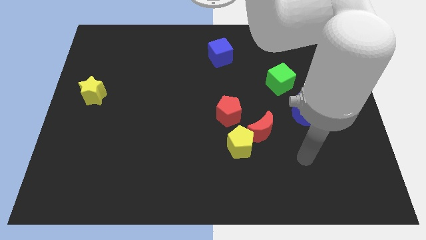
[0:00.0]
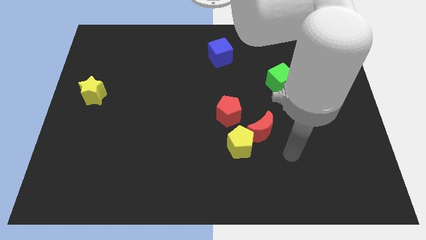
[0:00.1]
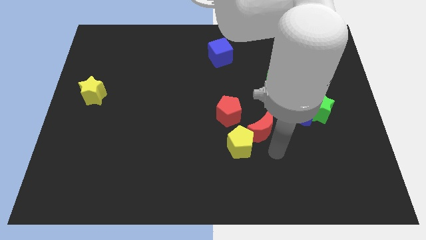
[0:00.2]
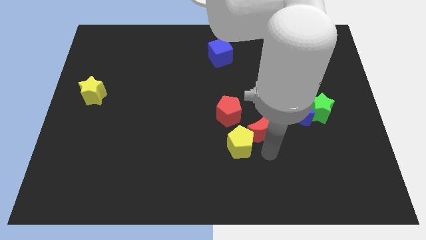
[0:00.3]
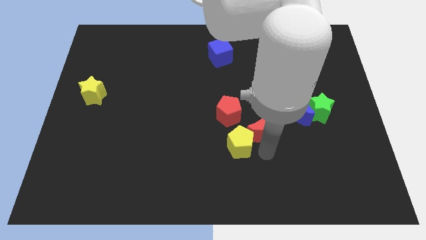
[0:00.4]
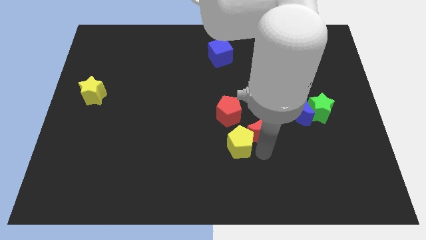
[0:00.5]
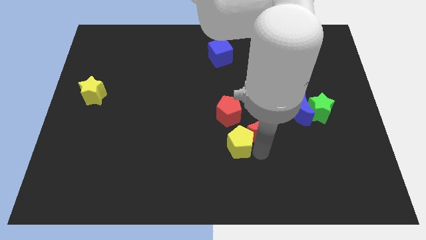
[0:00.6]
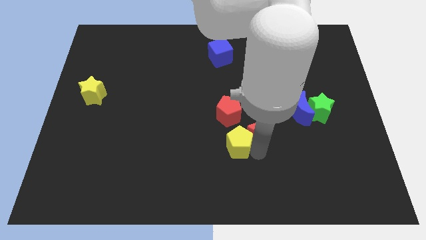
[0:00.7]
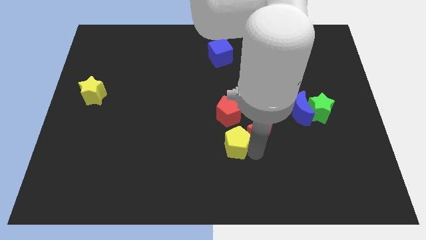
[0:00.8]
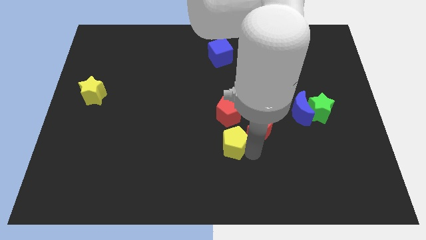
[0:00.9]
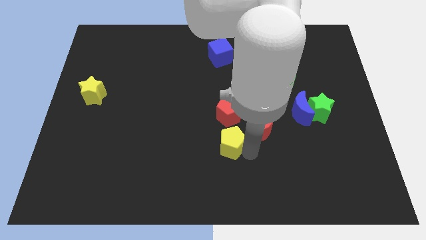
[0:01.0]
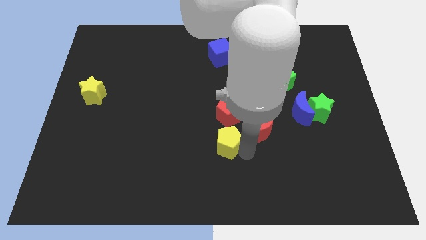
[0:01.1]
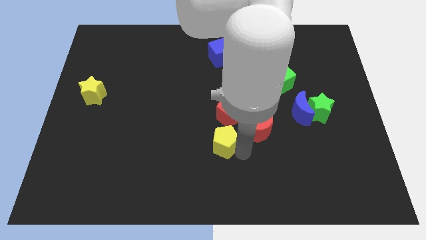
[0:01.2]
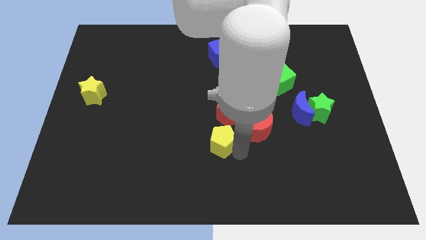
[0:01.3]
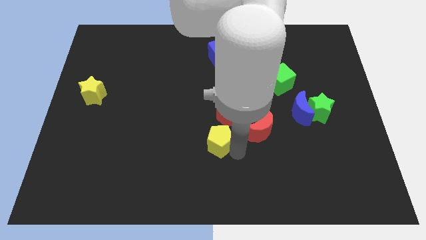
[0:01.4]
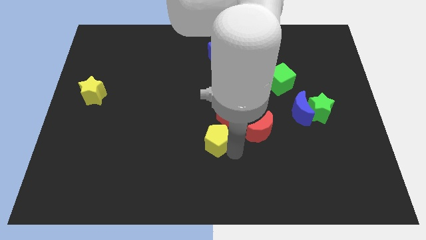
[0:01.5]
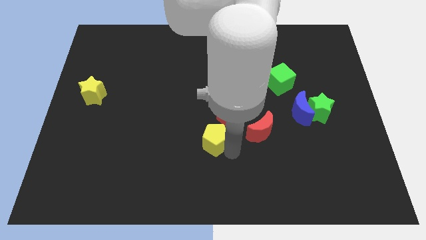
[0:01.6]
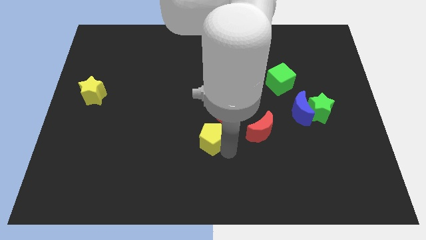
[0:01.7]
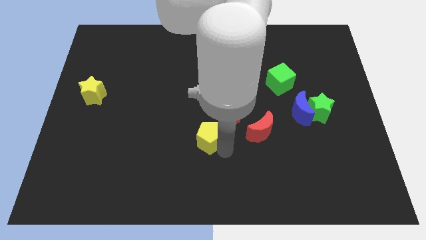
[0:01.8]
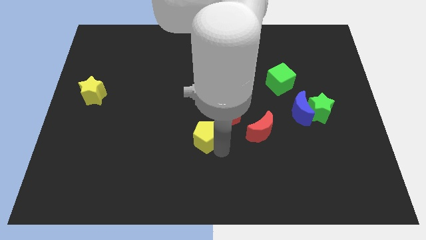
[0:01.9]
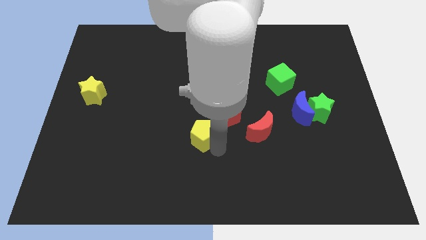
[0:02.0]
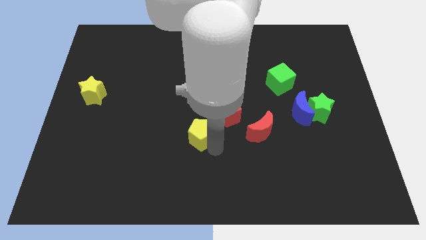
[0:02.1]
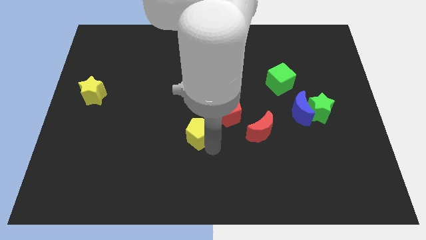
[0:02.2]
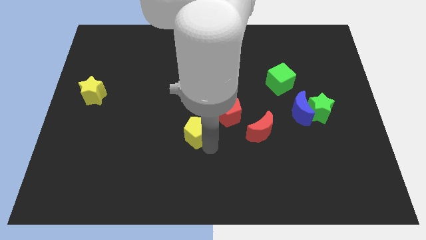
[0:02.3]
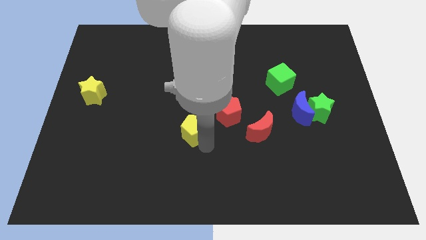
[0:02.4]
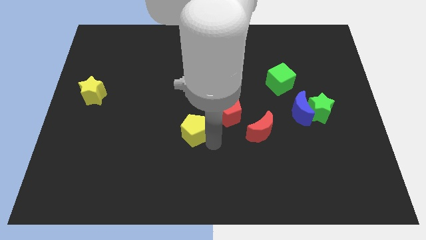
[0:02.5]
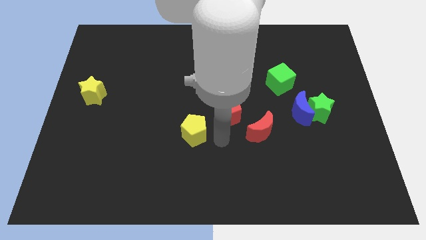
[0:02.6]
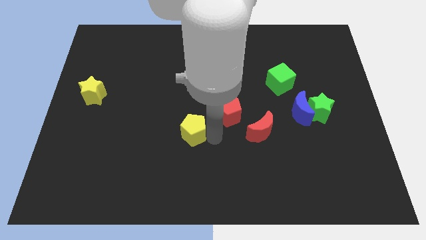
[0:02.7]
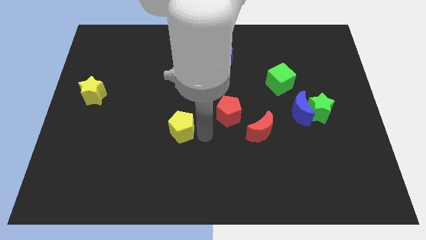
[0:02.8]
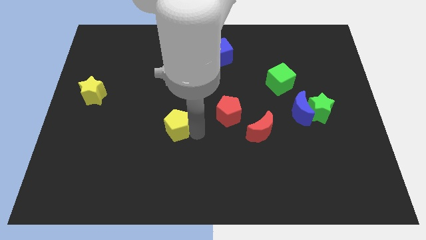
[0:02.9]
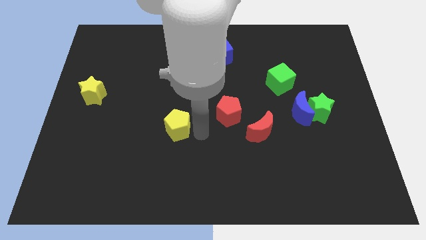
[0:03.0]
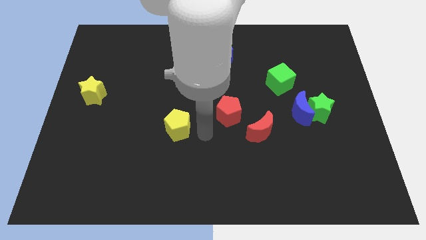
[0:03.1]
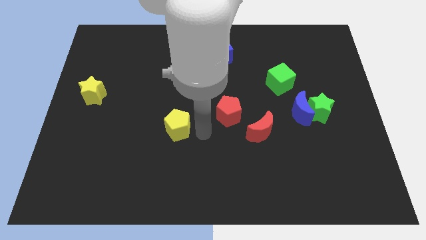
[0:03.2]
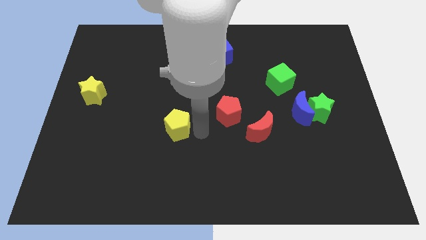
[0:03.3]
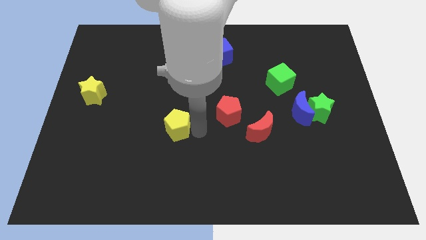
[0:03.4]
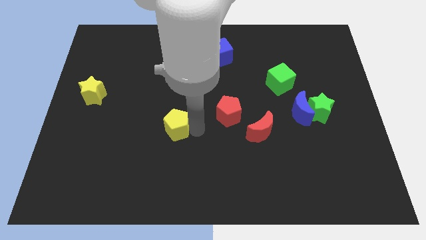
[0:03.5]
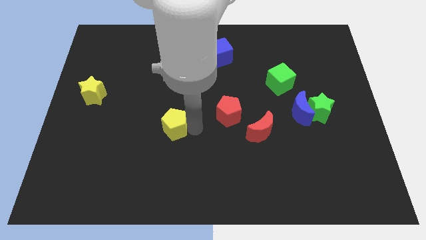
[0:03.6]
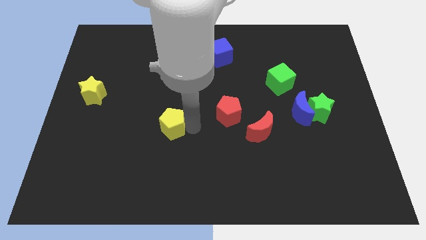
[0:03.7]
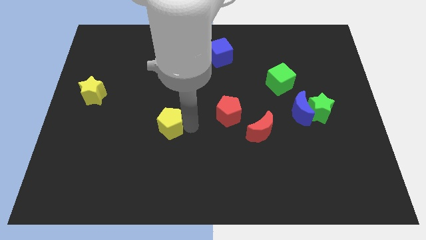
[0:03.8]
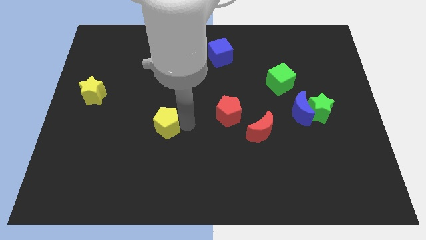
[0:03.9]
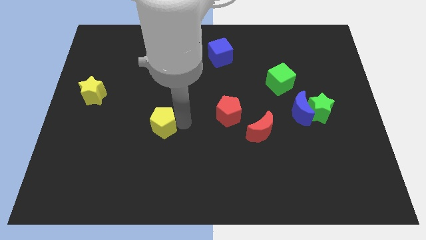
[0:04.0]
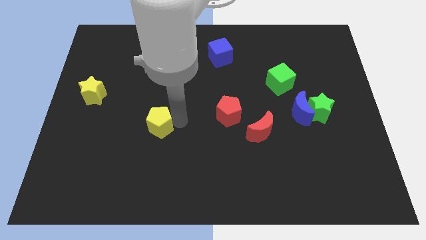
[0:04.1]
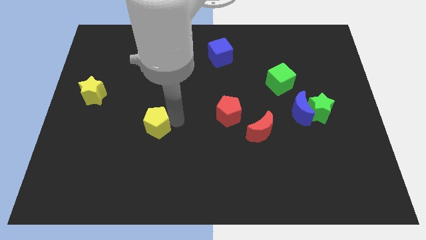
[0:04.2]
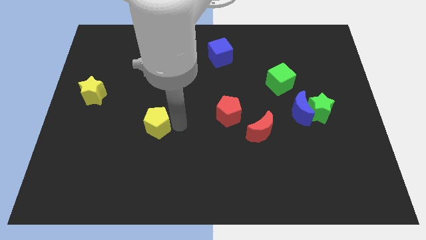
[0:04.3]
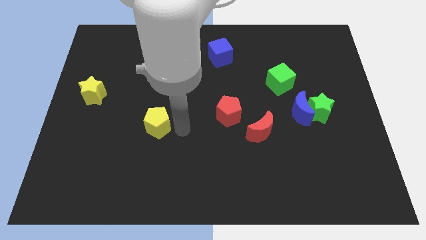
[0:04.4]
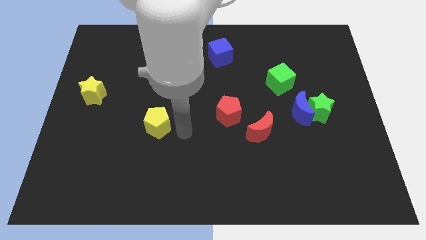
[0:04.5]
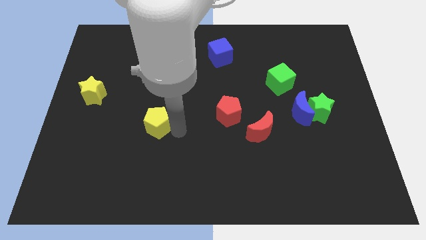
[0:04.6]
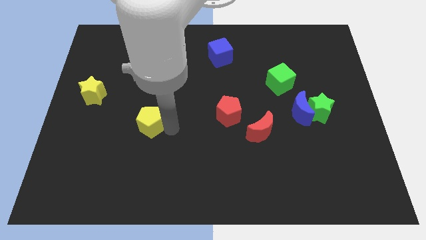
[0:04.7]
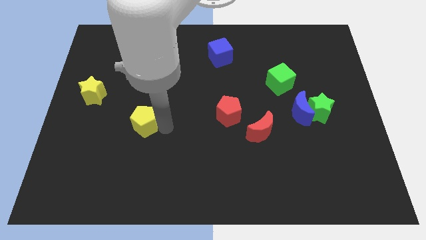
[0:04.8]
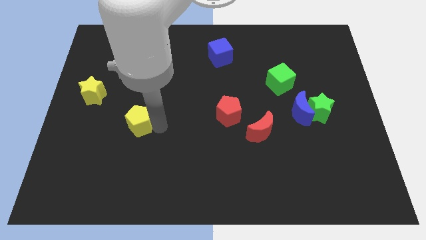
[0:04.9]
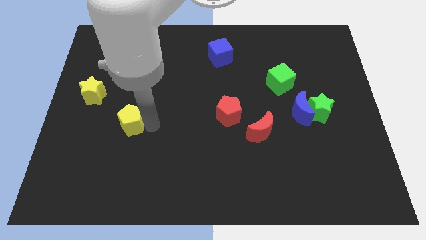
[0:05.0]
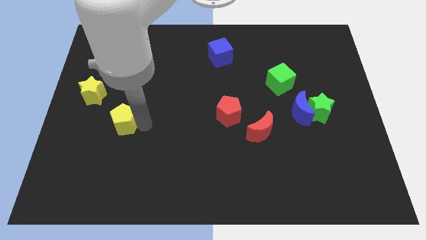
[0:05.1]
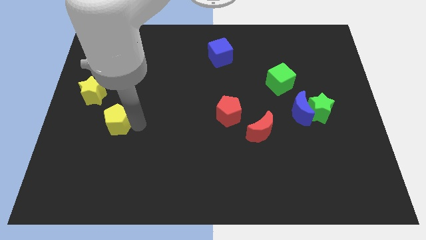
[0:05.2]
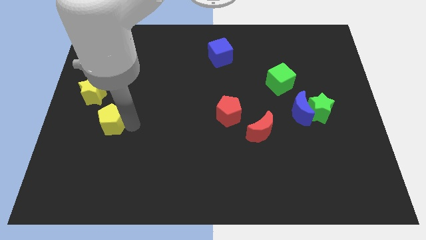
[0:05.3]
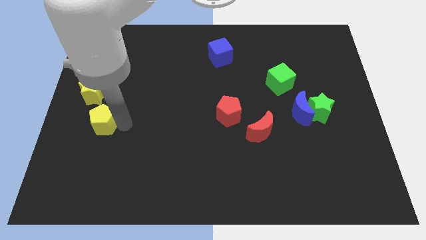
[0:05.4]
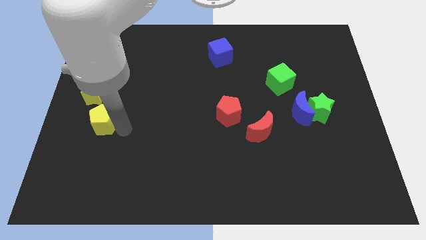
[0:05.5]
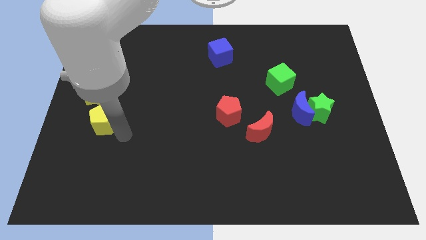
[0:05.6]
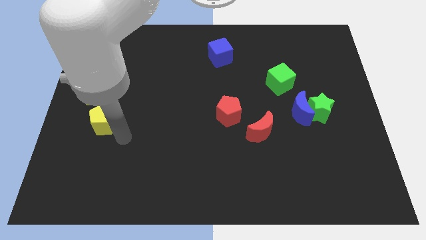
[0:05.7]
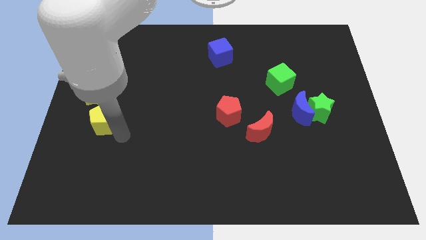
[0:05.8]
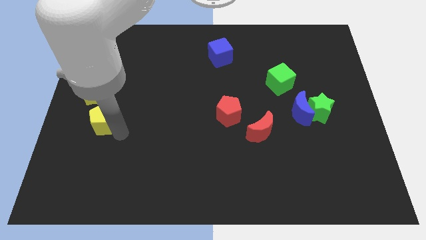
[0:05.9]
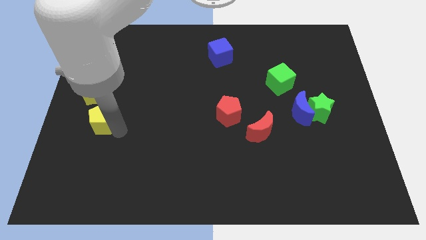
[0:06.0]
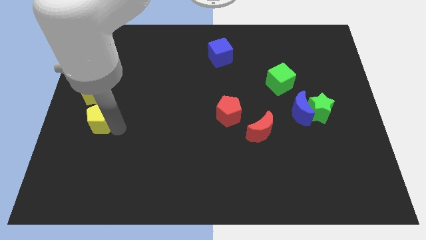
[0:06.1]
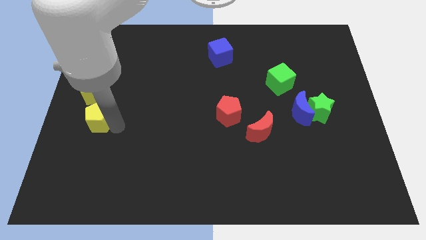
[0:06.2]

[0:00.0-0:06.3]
put the yellow pentagon to the center left

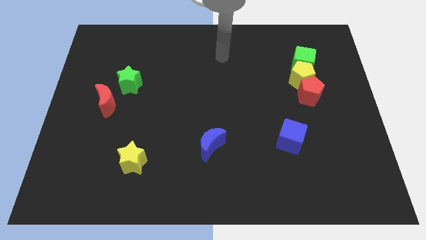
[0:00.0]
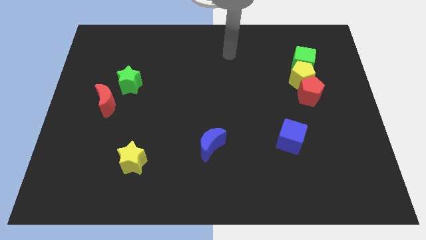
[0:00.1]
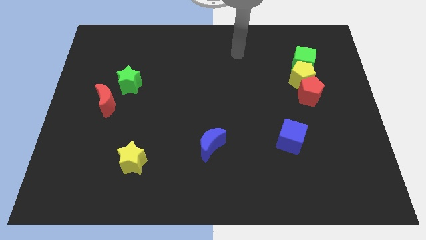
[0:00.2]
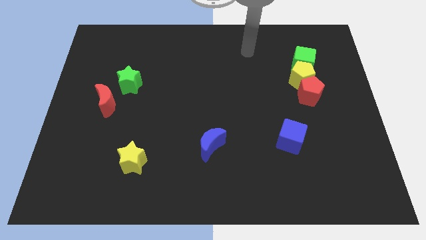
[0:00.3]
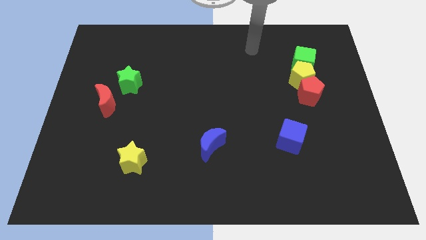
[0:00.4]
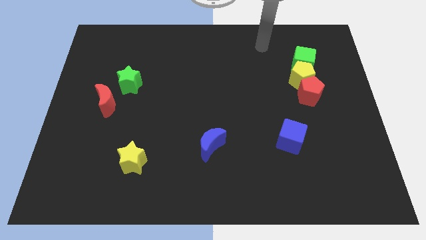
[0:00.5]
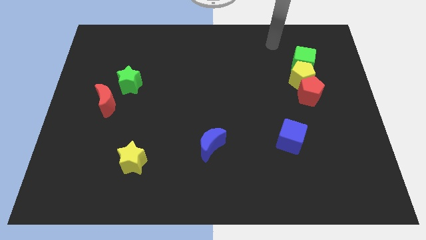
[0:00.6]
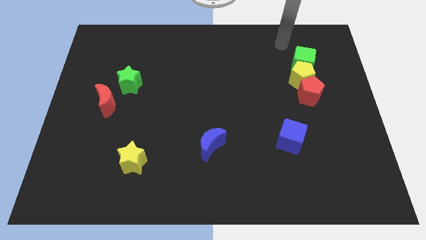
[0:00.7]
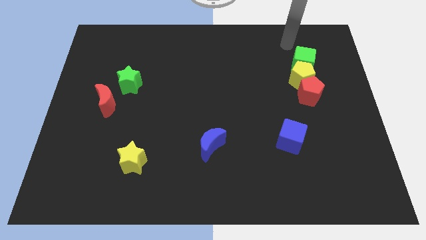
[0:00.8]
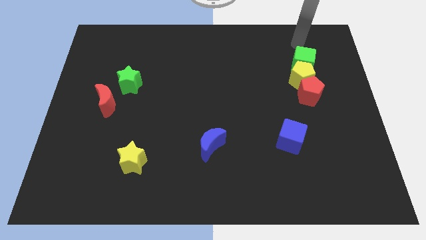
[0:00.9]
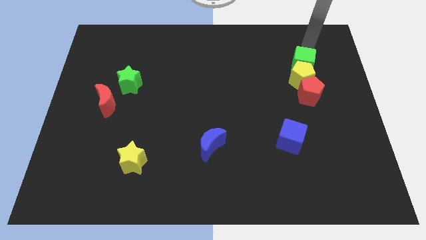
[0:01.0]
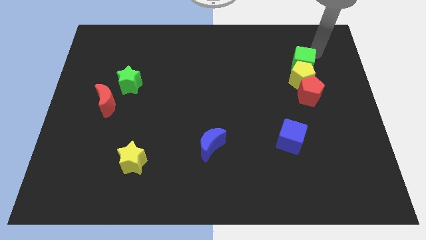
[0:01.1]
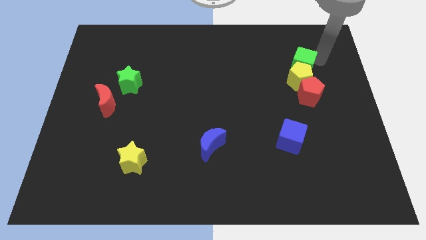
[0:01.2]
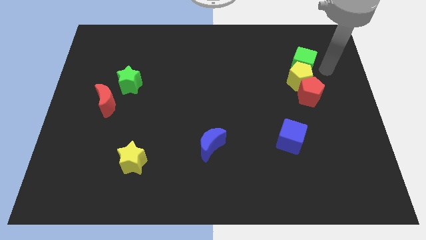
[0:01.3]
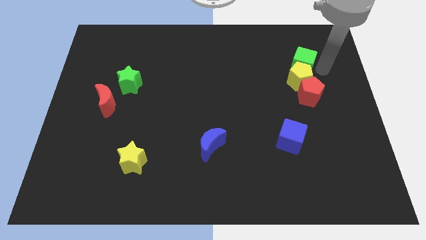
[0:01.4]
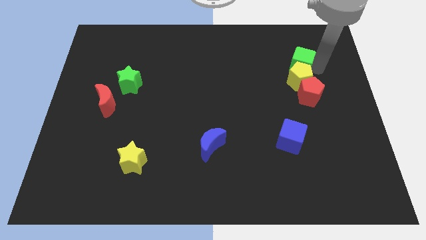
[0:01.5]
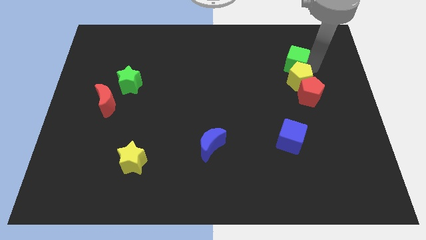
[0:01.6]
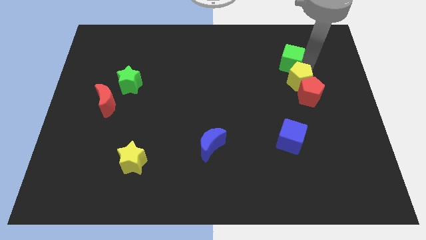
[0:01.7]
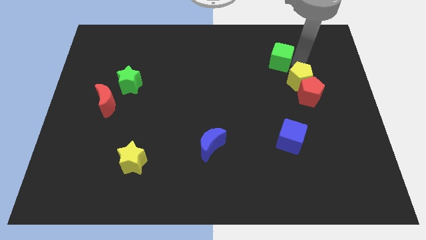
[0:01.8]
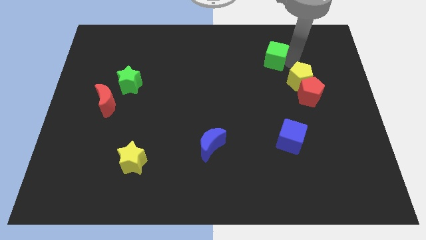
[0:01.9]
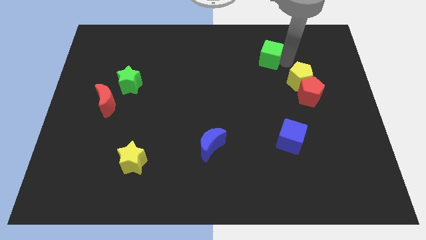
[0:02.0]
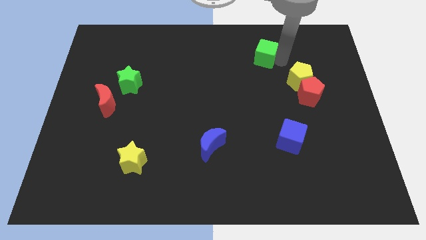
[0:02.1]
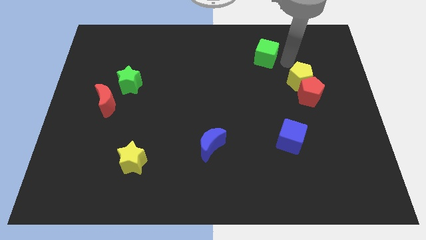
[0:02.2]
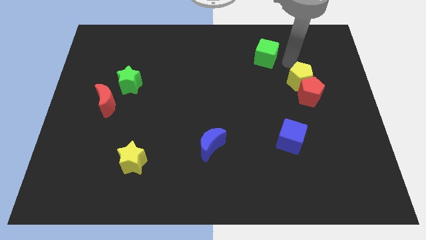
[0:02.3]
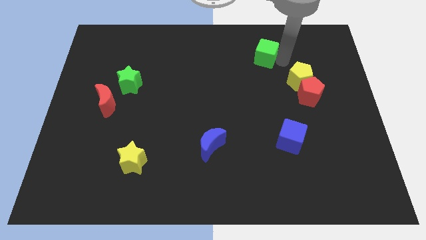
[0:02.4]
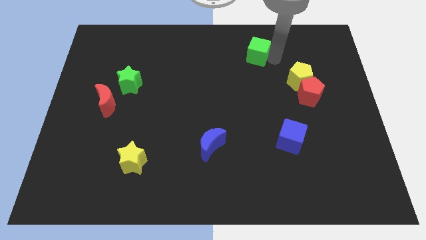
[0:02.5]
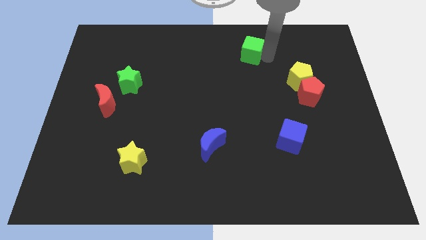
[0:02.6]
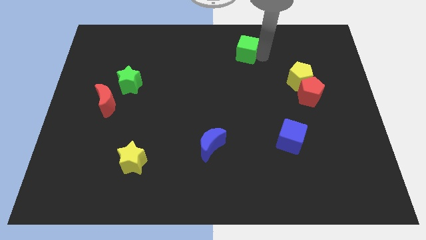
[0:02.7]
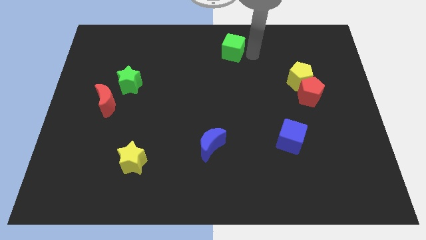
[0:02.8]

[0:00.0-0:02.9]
push the green cube to the top side
